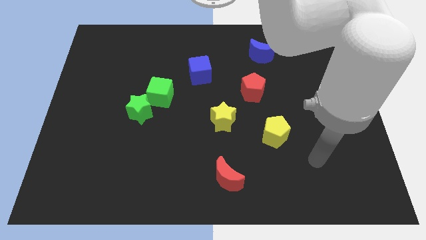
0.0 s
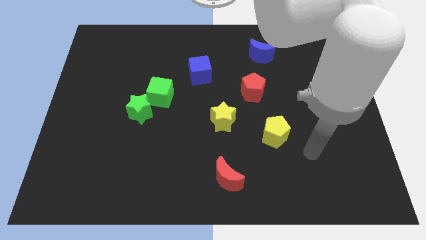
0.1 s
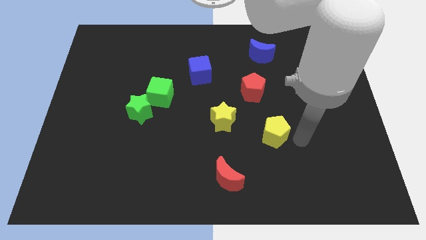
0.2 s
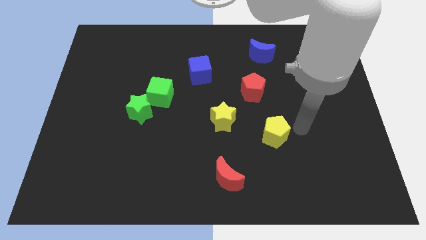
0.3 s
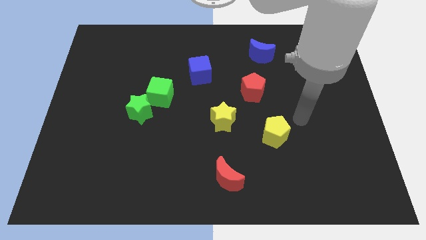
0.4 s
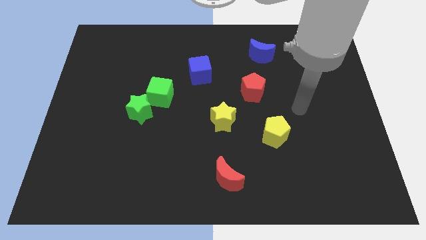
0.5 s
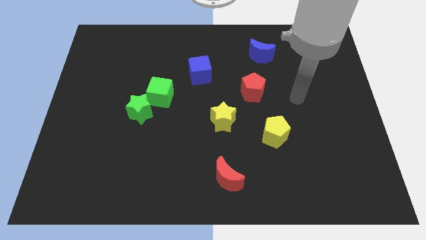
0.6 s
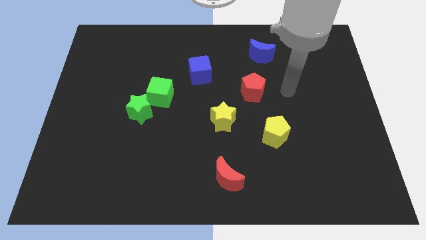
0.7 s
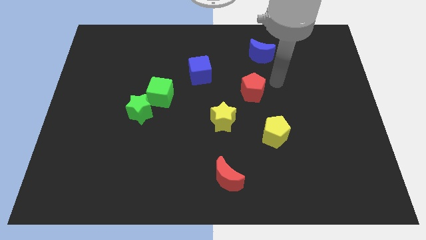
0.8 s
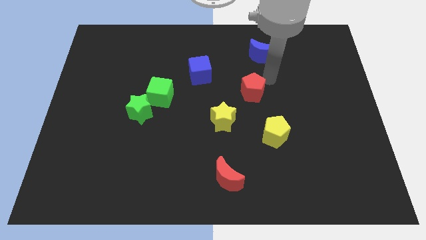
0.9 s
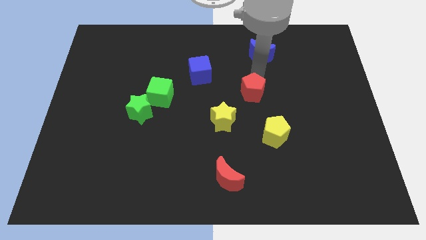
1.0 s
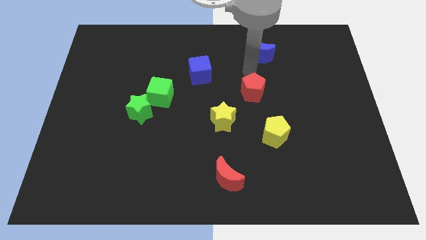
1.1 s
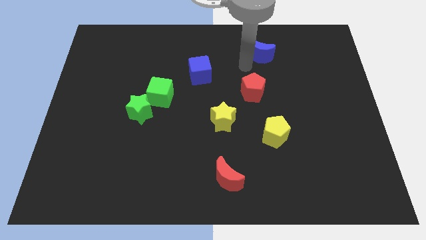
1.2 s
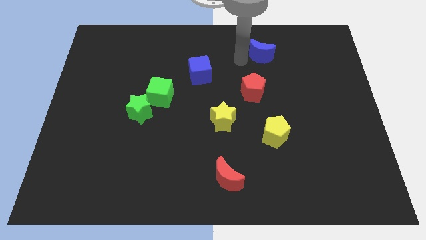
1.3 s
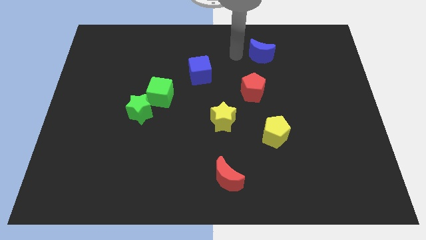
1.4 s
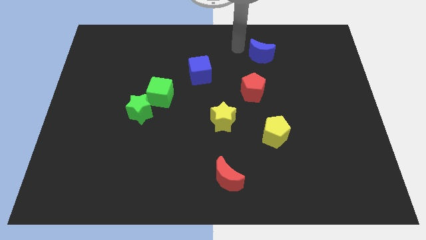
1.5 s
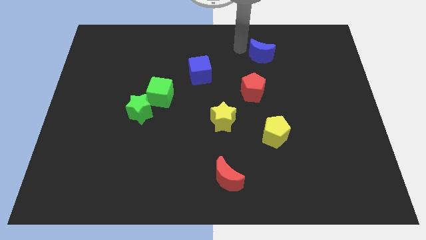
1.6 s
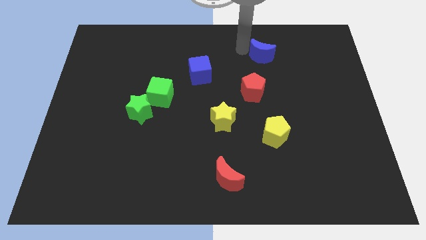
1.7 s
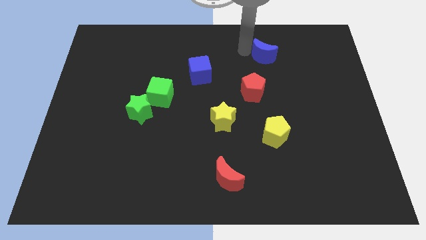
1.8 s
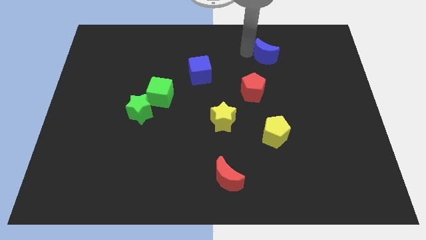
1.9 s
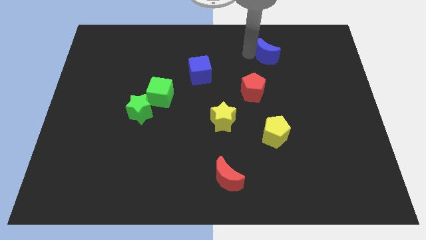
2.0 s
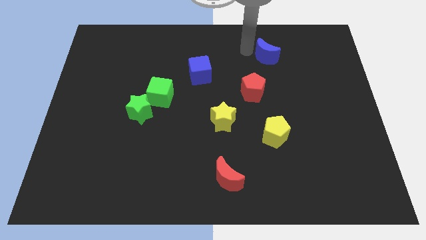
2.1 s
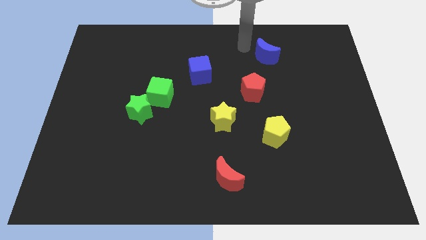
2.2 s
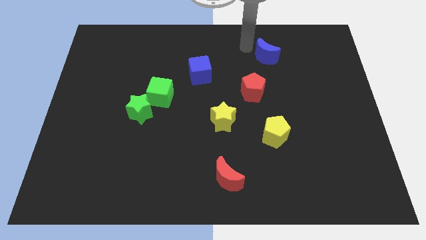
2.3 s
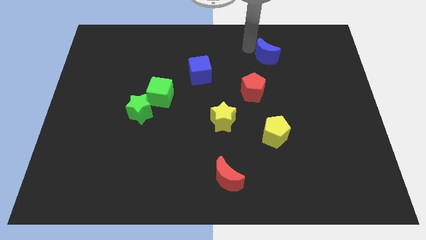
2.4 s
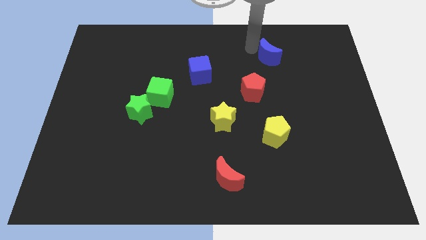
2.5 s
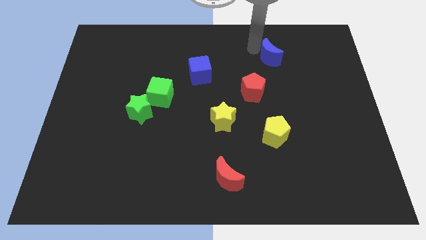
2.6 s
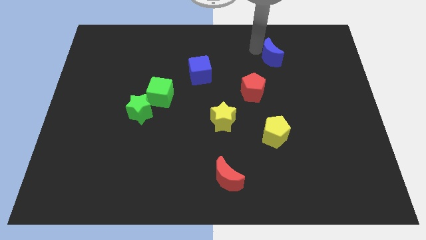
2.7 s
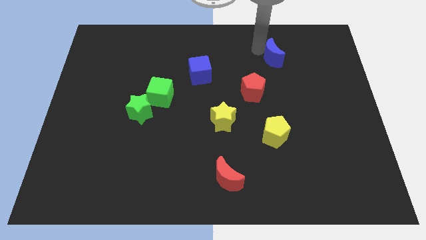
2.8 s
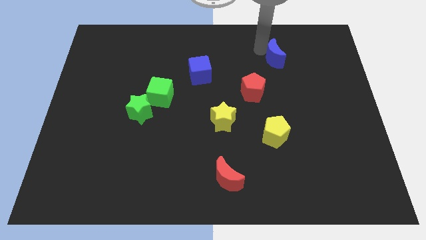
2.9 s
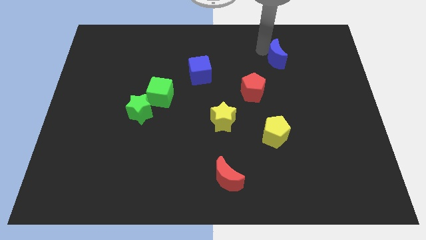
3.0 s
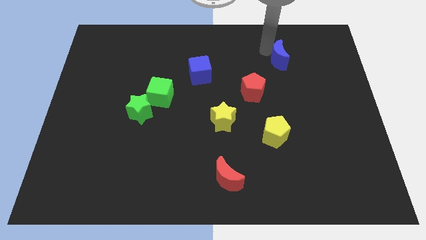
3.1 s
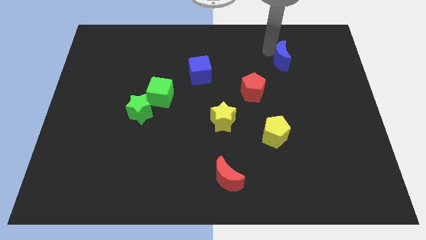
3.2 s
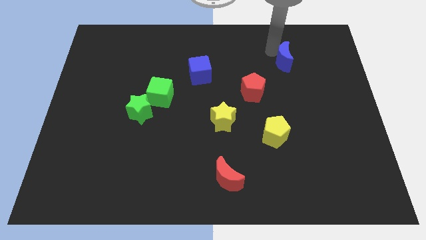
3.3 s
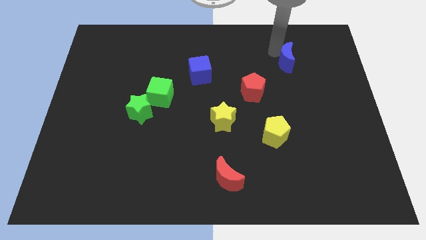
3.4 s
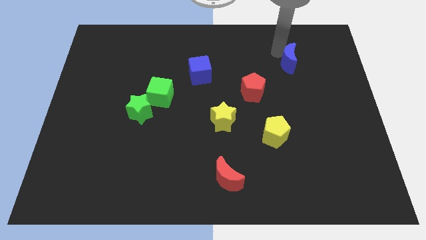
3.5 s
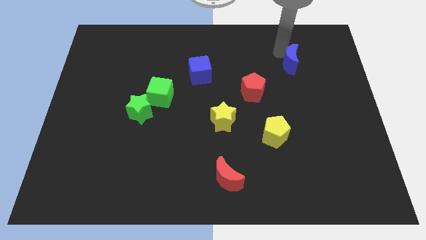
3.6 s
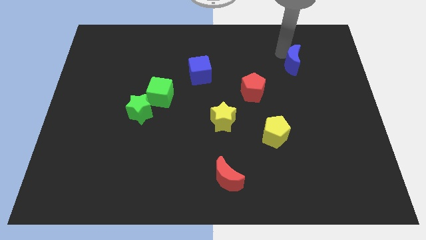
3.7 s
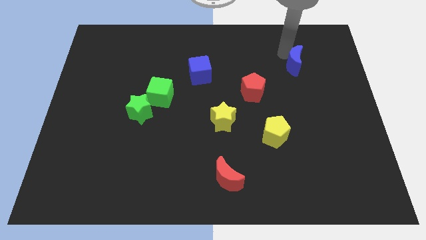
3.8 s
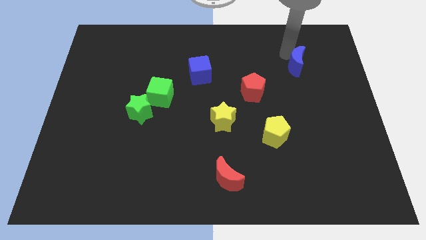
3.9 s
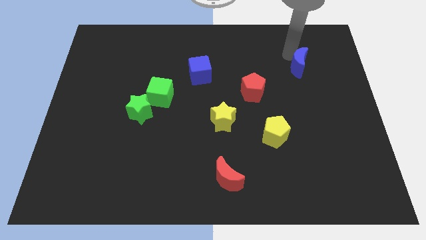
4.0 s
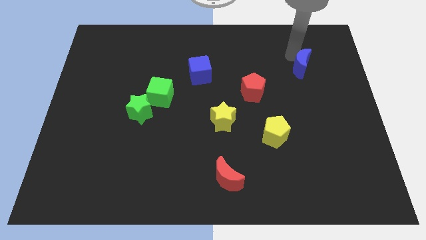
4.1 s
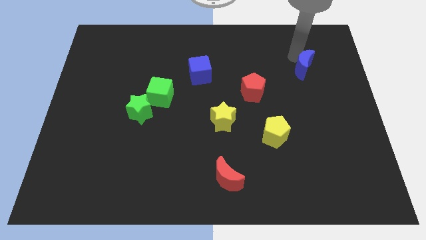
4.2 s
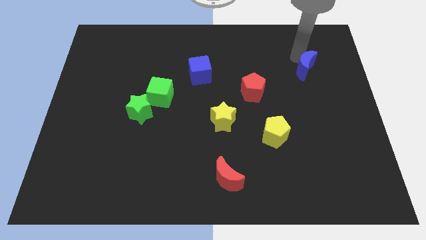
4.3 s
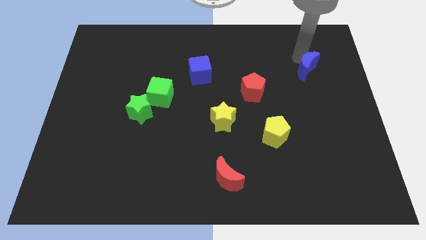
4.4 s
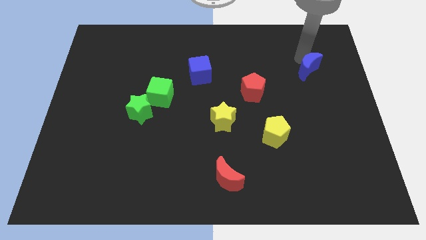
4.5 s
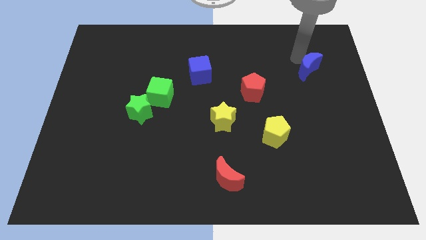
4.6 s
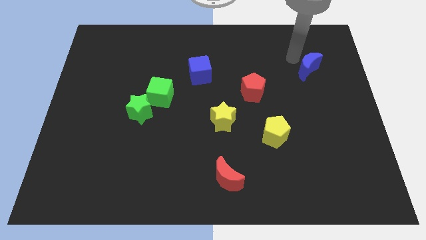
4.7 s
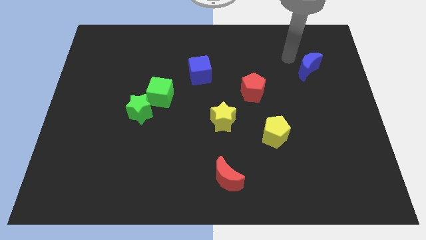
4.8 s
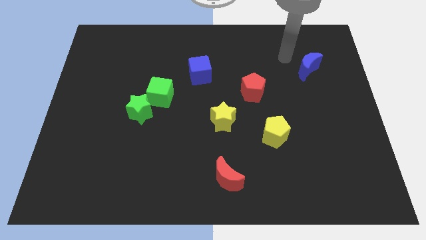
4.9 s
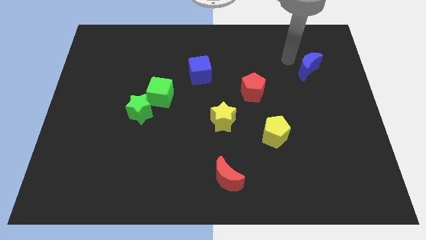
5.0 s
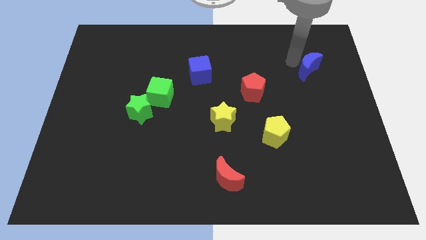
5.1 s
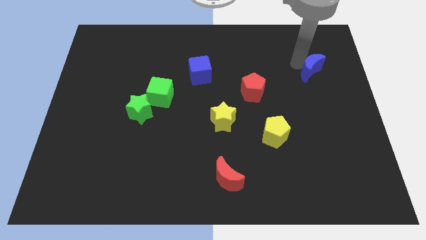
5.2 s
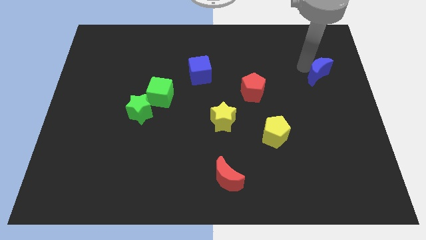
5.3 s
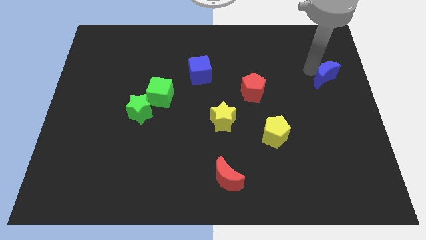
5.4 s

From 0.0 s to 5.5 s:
put the blue moon to the right side

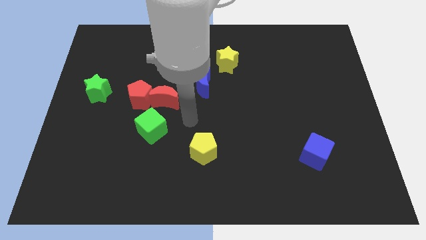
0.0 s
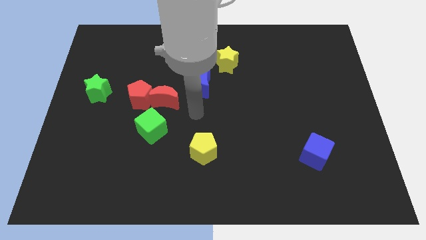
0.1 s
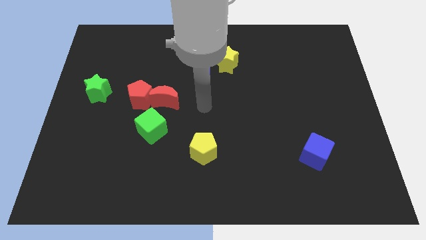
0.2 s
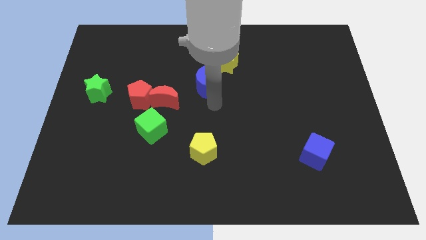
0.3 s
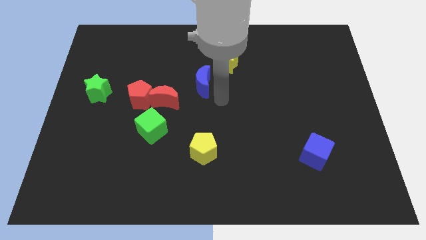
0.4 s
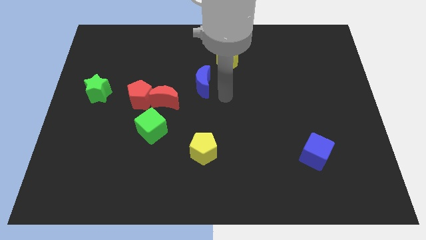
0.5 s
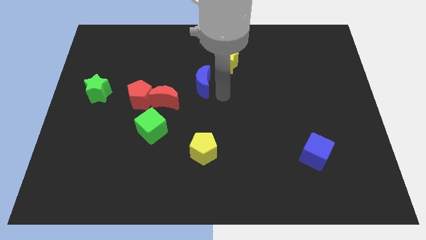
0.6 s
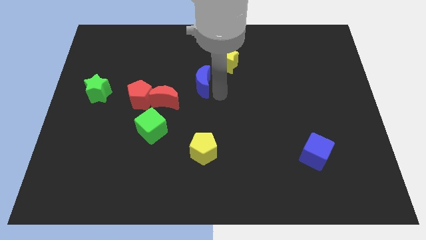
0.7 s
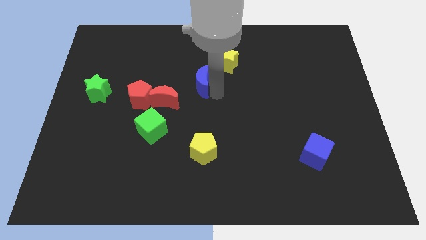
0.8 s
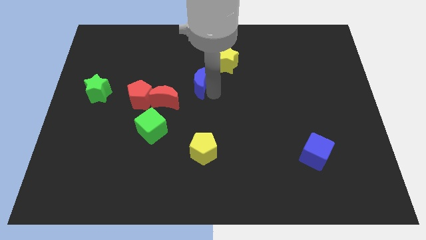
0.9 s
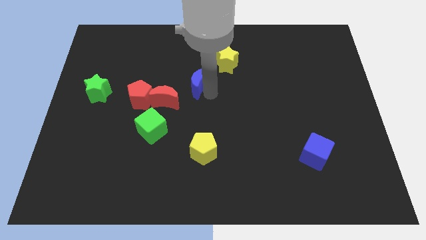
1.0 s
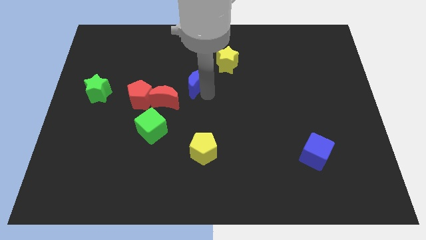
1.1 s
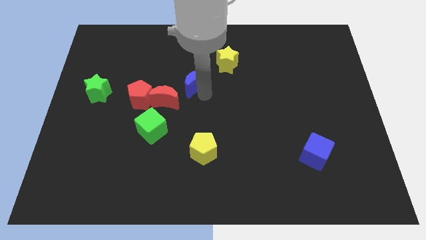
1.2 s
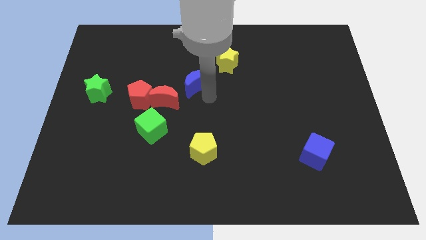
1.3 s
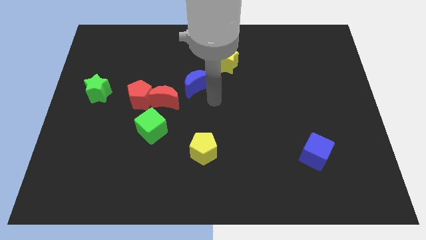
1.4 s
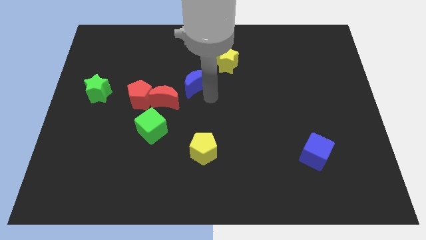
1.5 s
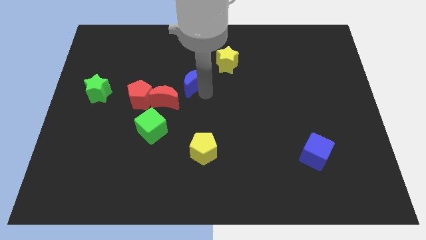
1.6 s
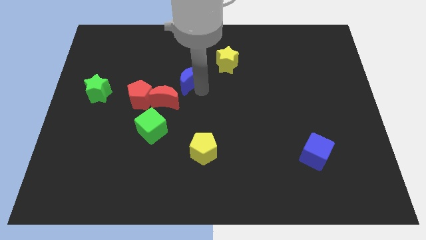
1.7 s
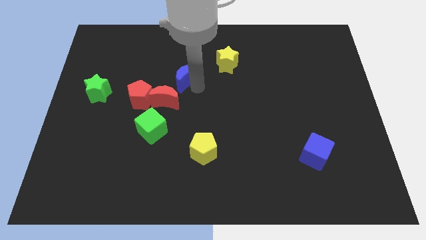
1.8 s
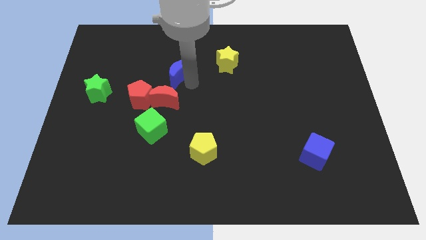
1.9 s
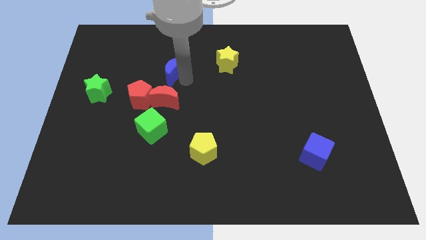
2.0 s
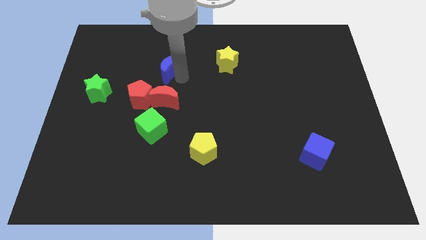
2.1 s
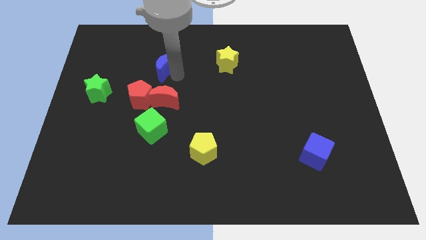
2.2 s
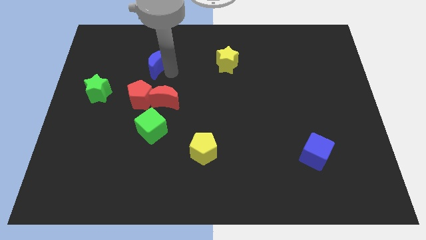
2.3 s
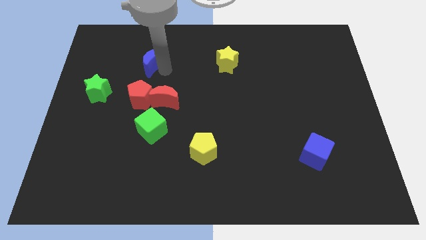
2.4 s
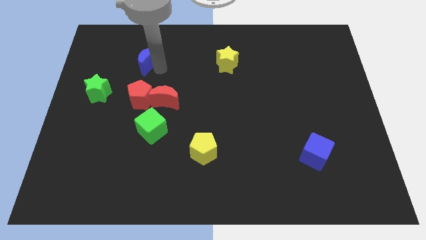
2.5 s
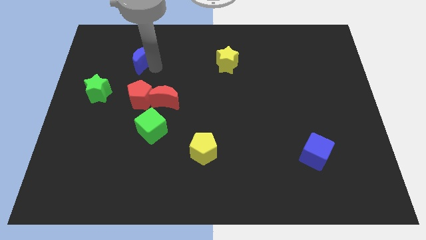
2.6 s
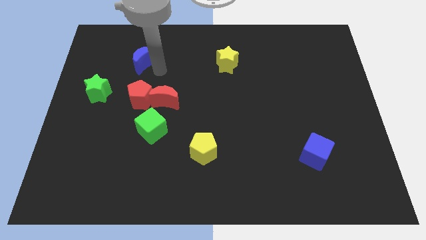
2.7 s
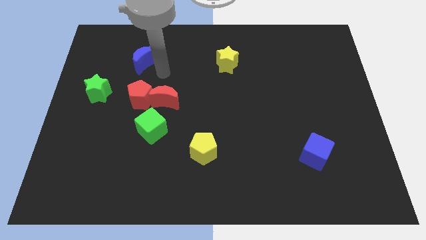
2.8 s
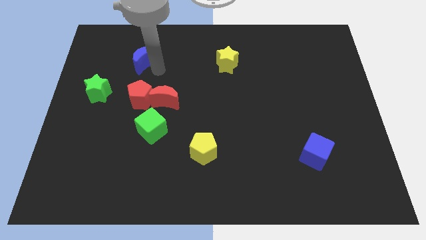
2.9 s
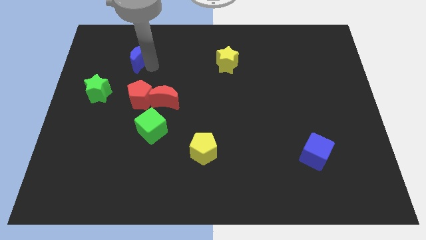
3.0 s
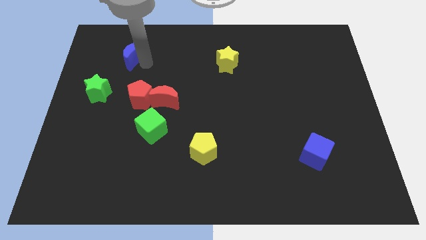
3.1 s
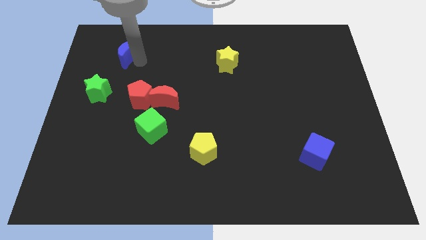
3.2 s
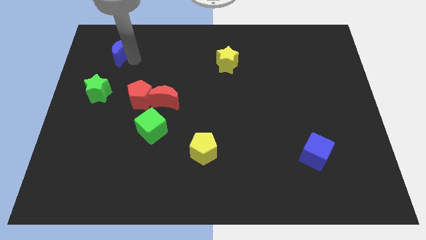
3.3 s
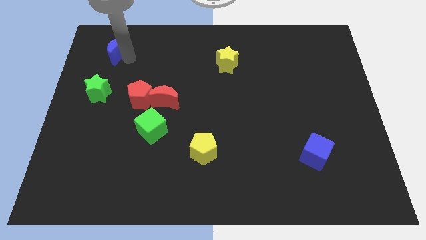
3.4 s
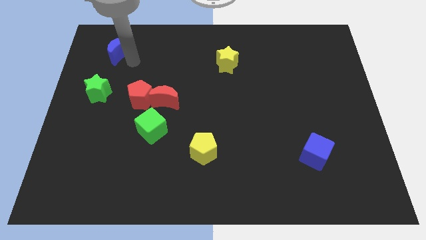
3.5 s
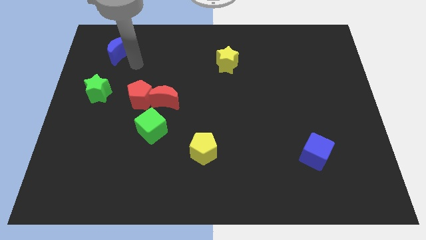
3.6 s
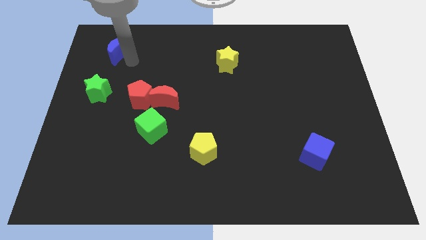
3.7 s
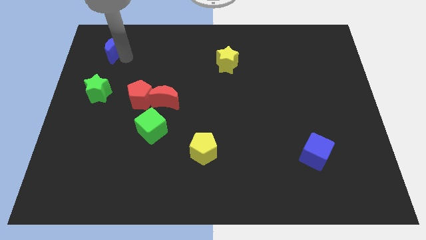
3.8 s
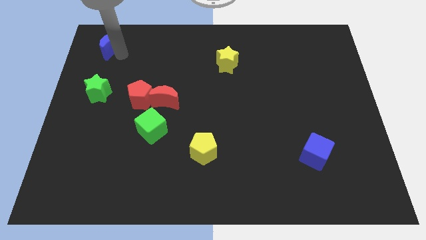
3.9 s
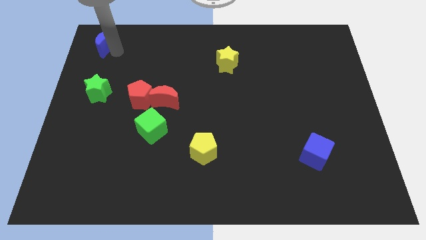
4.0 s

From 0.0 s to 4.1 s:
push the blue moon to the top left of the board
